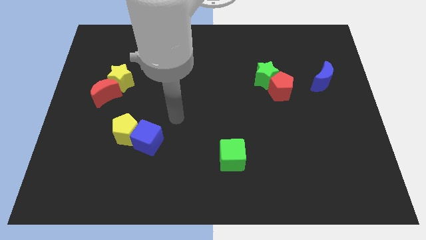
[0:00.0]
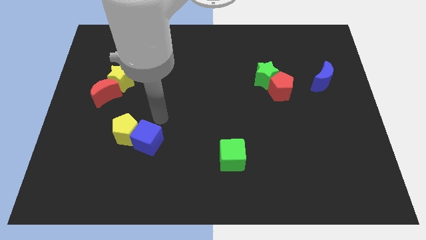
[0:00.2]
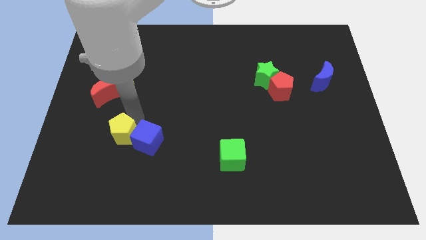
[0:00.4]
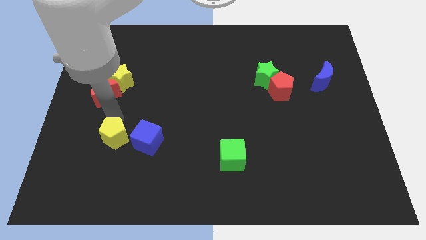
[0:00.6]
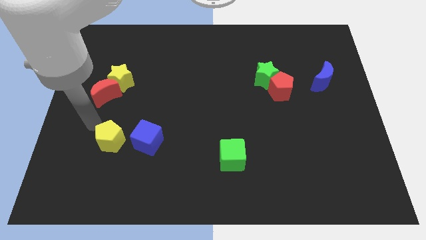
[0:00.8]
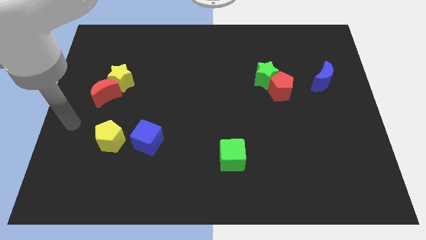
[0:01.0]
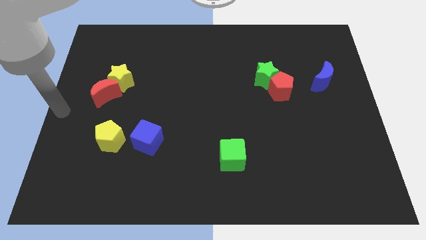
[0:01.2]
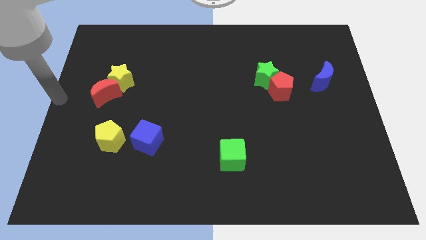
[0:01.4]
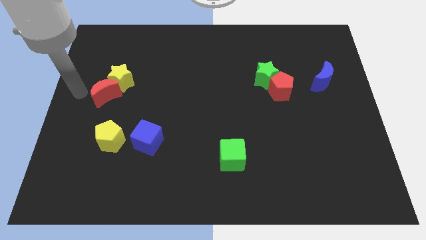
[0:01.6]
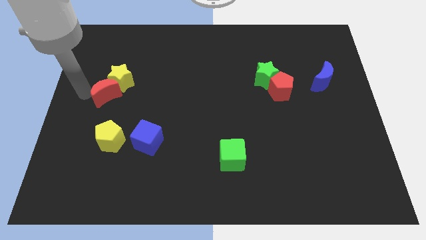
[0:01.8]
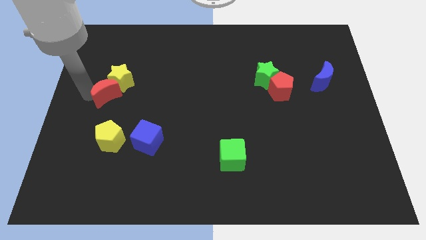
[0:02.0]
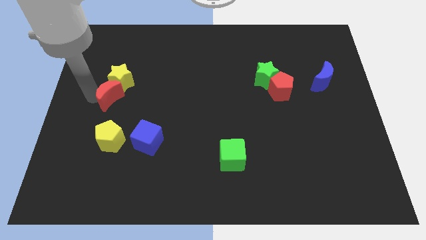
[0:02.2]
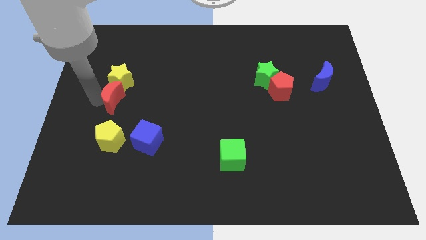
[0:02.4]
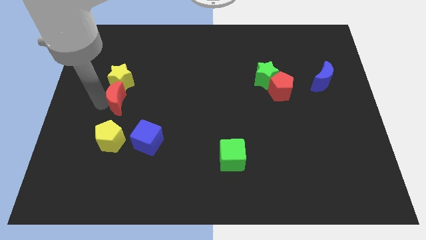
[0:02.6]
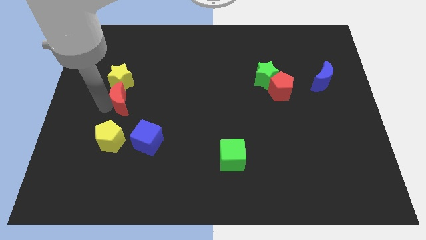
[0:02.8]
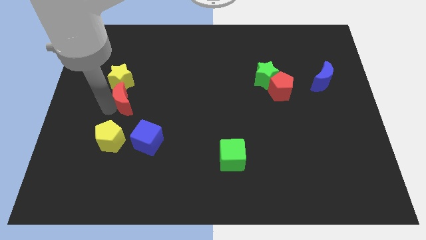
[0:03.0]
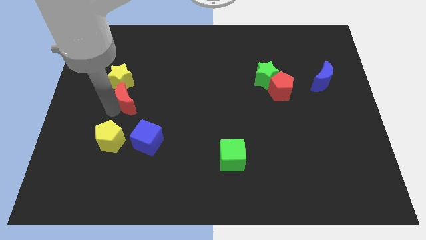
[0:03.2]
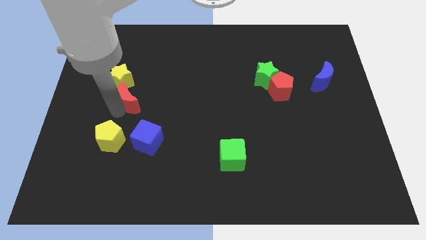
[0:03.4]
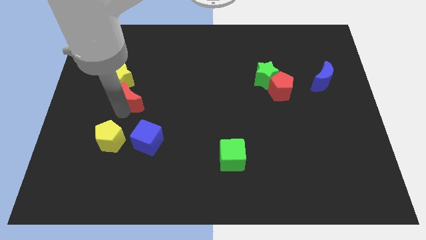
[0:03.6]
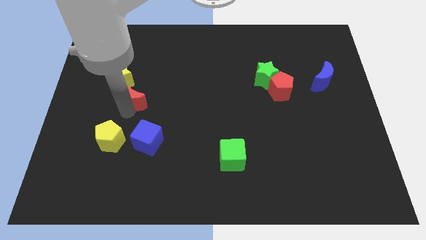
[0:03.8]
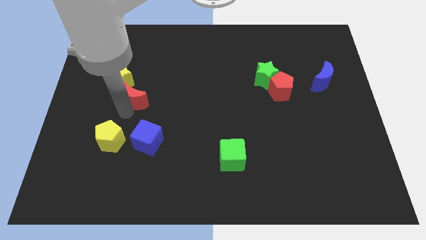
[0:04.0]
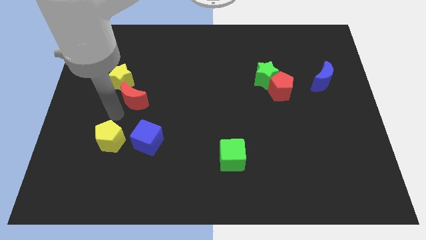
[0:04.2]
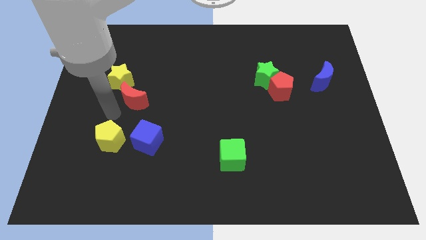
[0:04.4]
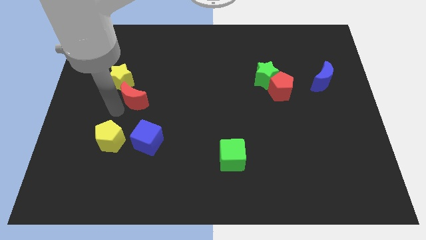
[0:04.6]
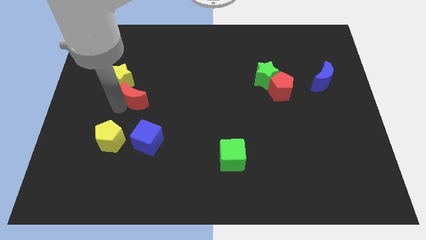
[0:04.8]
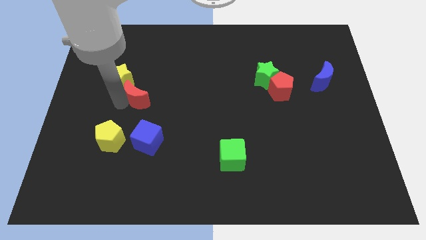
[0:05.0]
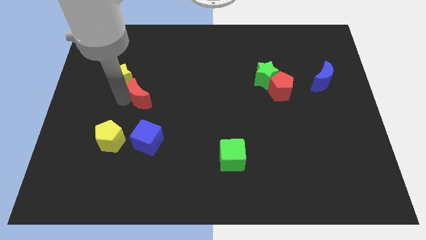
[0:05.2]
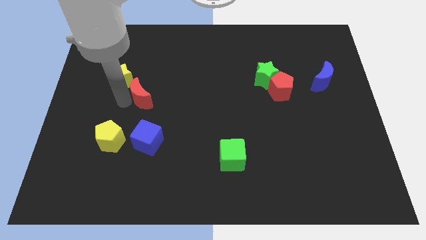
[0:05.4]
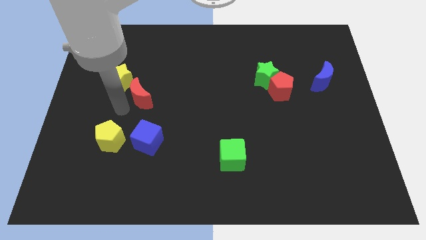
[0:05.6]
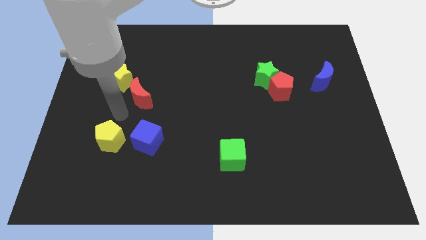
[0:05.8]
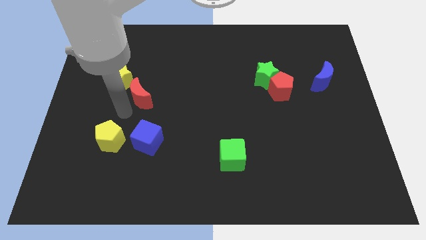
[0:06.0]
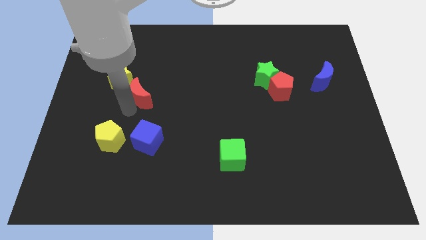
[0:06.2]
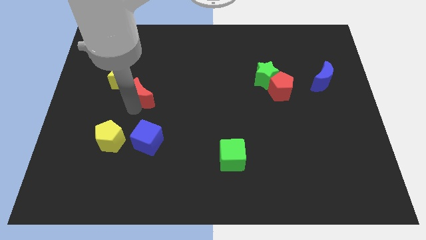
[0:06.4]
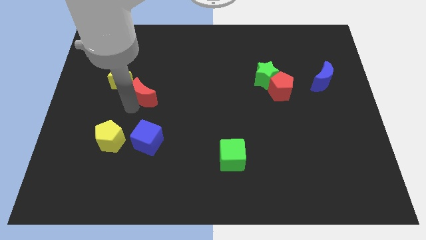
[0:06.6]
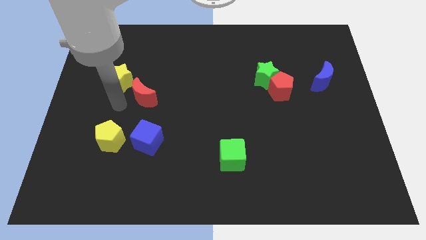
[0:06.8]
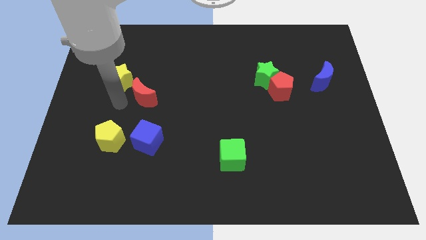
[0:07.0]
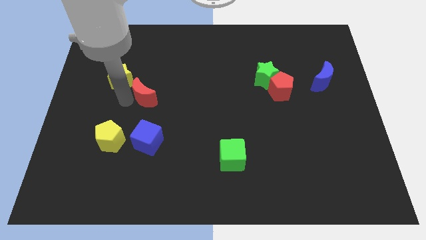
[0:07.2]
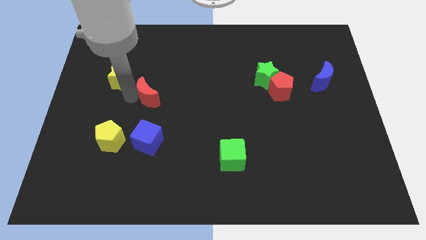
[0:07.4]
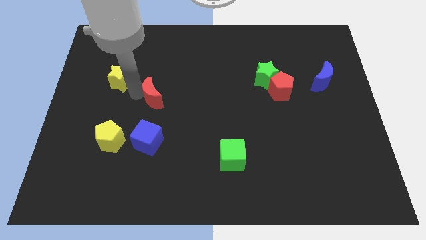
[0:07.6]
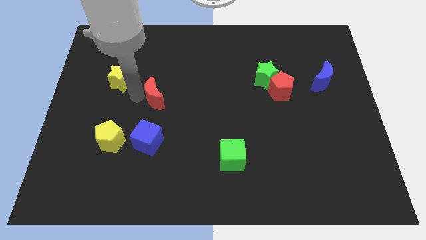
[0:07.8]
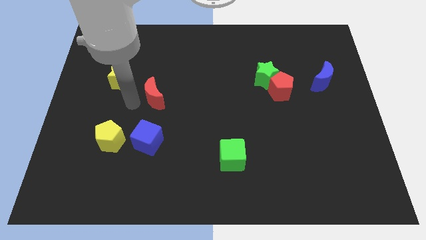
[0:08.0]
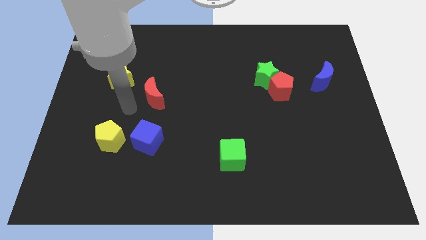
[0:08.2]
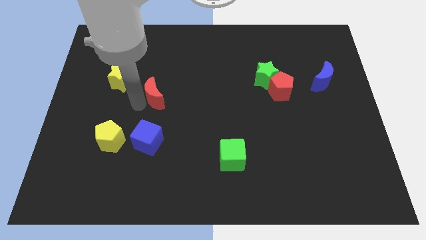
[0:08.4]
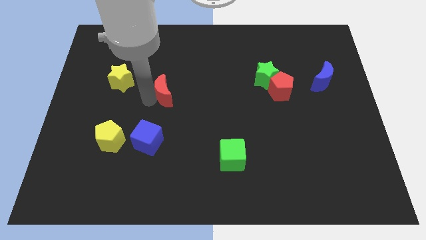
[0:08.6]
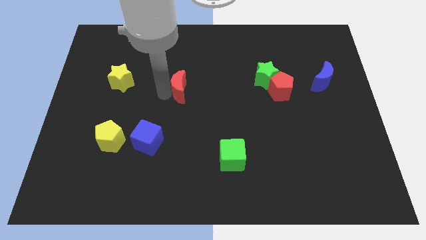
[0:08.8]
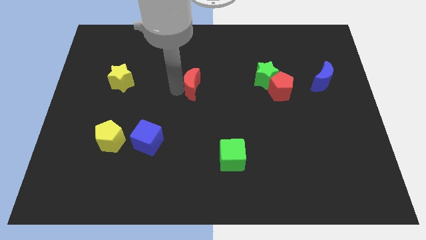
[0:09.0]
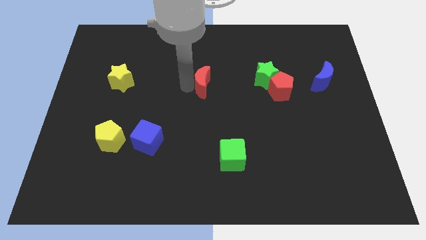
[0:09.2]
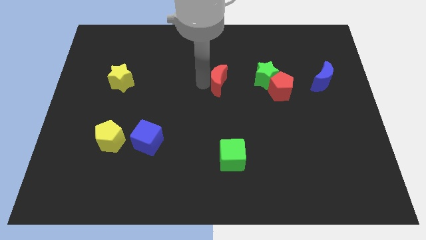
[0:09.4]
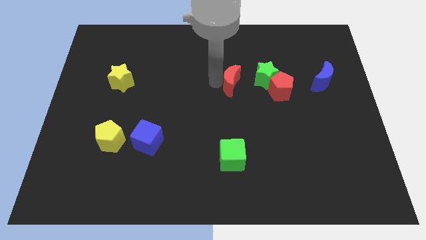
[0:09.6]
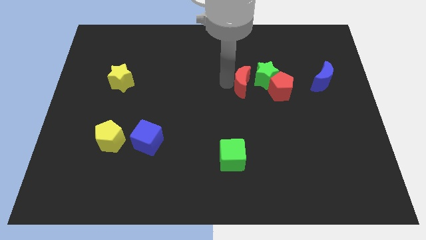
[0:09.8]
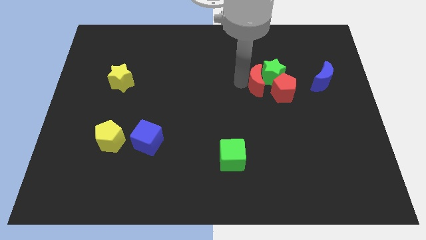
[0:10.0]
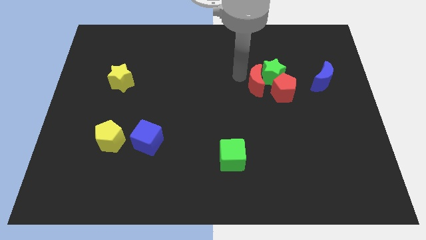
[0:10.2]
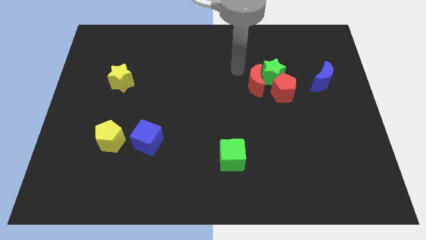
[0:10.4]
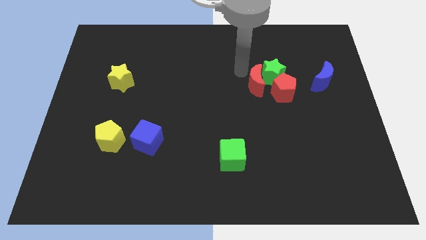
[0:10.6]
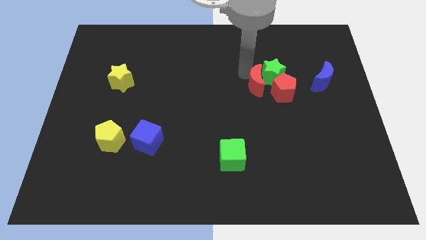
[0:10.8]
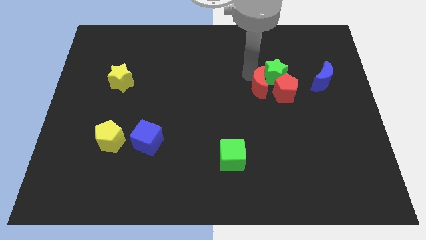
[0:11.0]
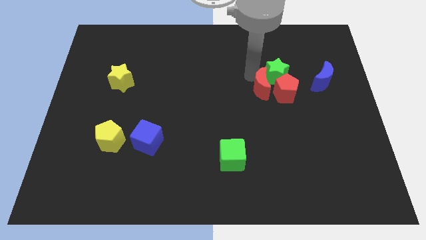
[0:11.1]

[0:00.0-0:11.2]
put the red moon close to the red pentagon

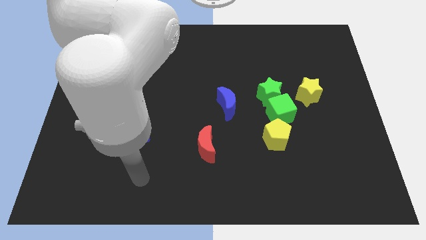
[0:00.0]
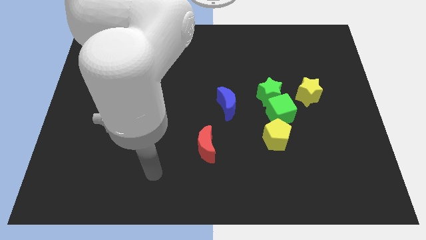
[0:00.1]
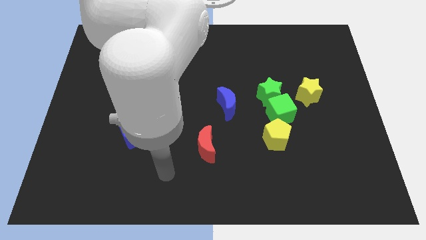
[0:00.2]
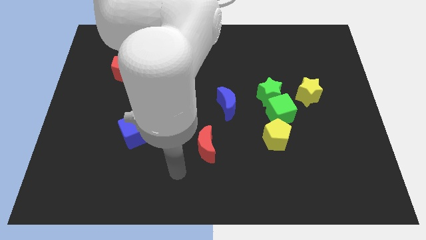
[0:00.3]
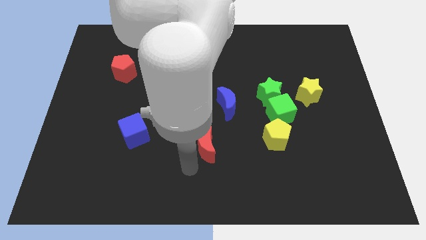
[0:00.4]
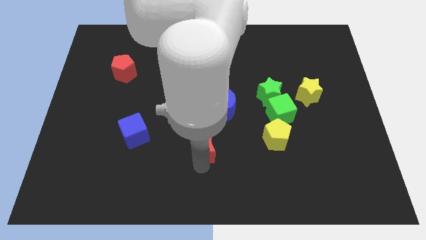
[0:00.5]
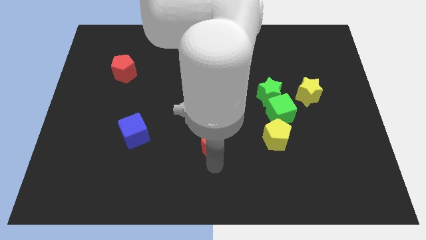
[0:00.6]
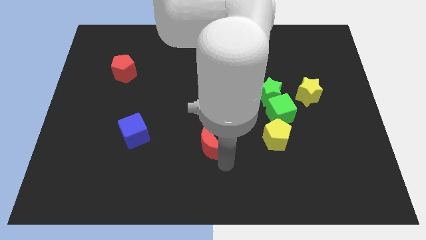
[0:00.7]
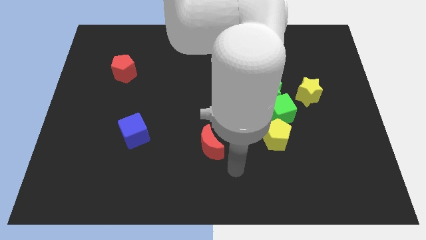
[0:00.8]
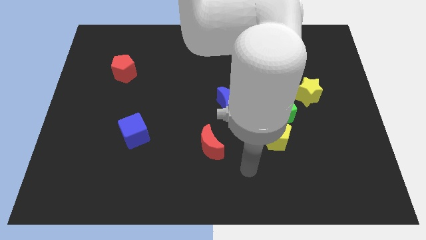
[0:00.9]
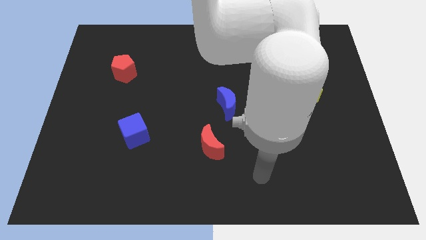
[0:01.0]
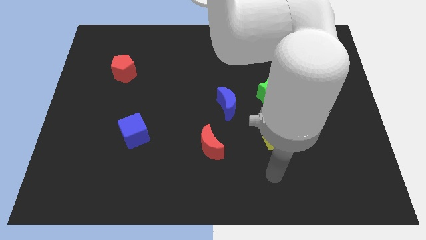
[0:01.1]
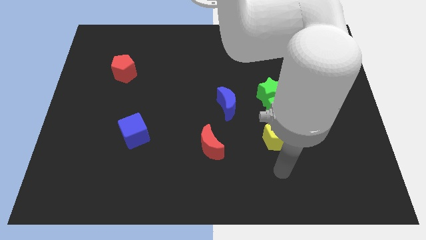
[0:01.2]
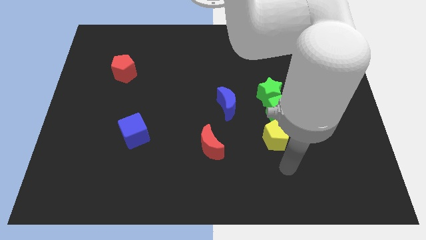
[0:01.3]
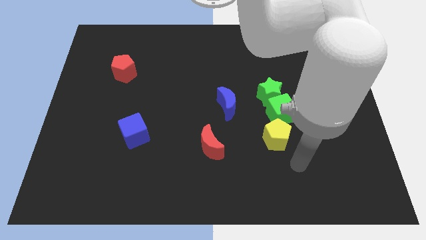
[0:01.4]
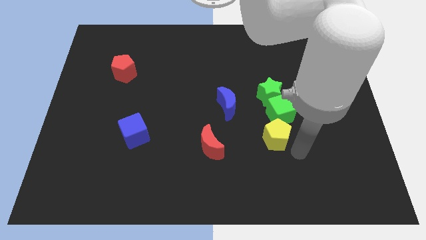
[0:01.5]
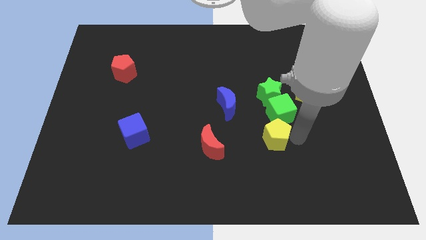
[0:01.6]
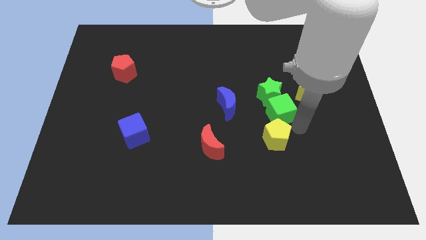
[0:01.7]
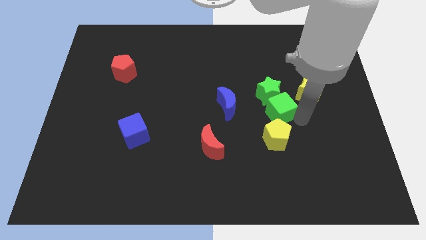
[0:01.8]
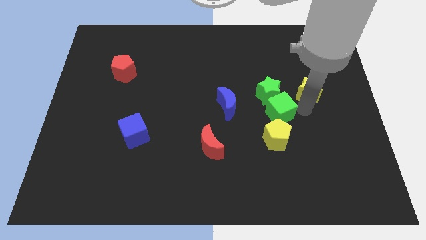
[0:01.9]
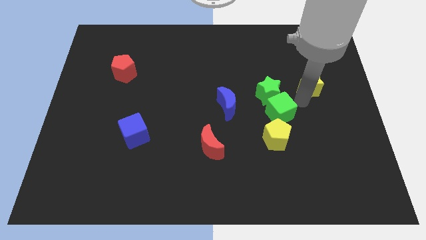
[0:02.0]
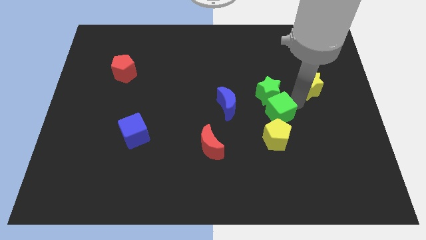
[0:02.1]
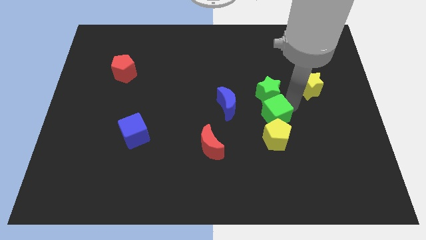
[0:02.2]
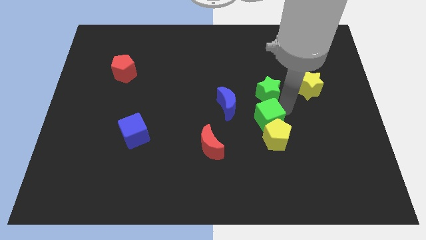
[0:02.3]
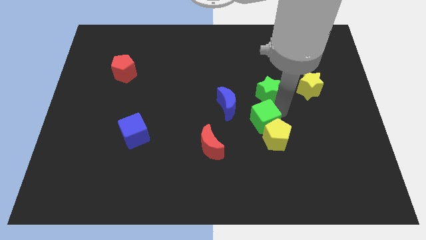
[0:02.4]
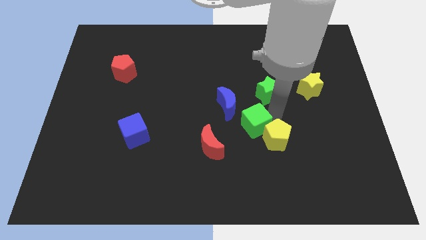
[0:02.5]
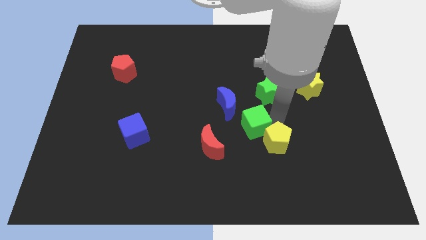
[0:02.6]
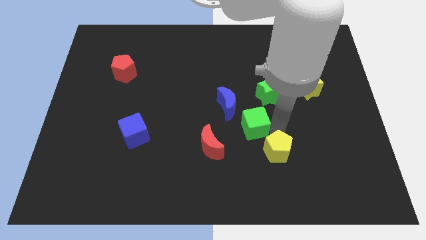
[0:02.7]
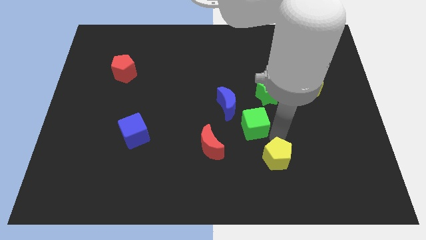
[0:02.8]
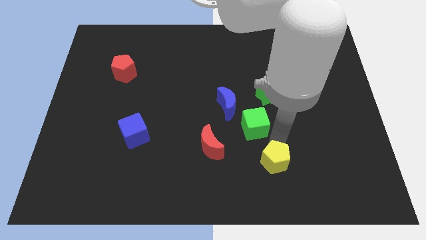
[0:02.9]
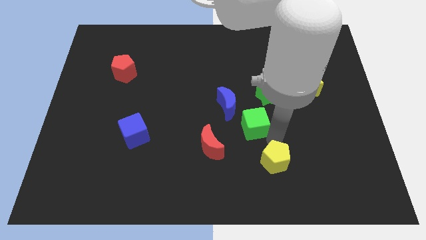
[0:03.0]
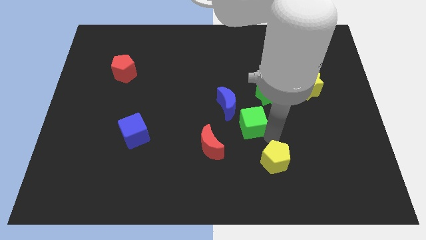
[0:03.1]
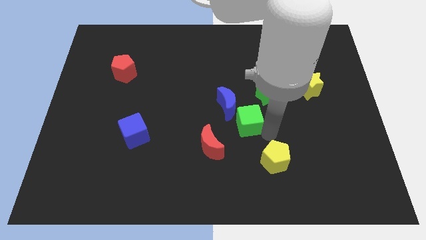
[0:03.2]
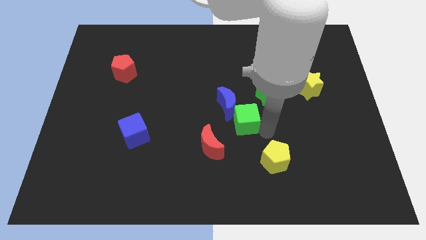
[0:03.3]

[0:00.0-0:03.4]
move the green cube to the blue moon
